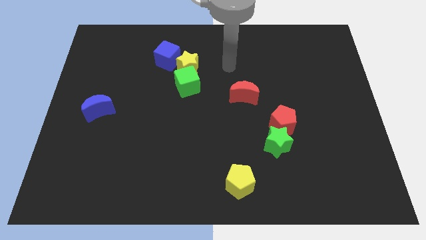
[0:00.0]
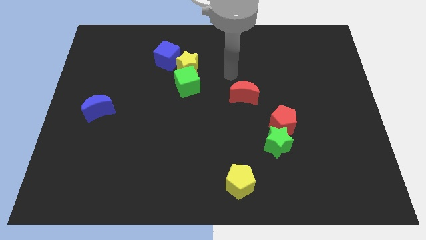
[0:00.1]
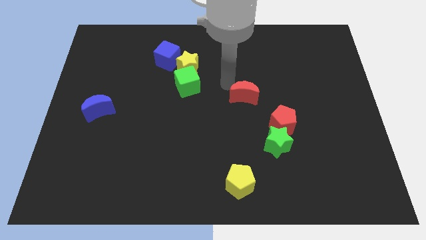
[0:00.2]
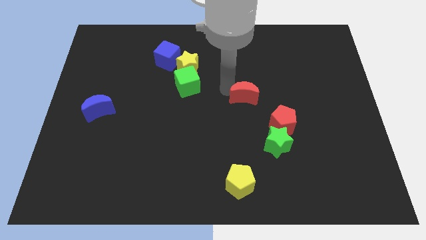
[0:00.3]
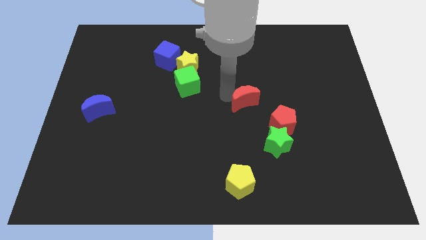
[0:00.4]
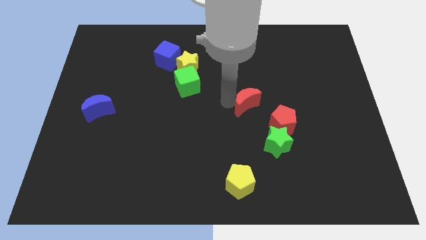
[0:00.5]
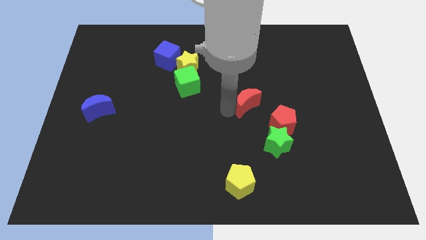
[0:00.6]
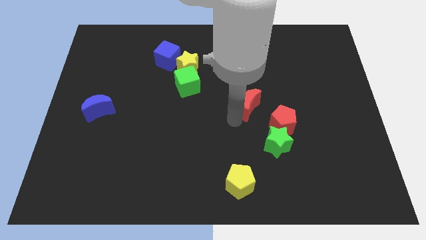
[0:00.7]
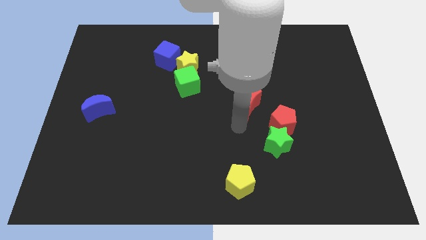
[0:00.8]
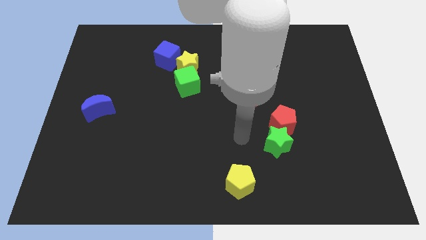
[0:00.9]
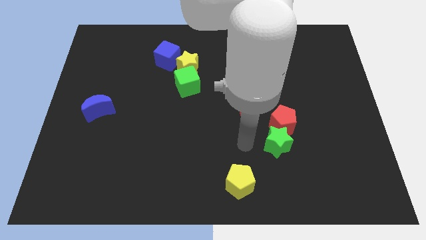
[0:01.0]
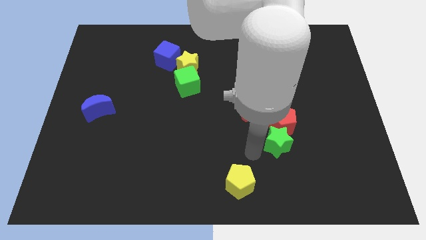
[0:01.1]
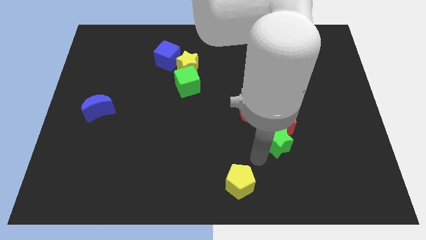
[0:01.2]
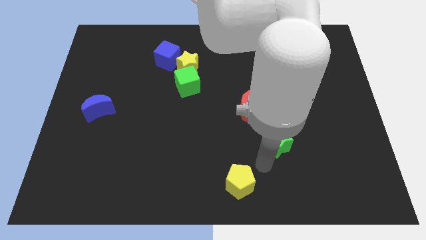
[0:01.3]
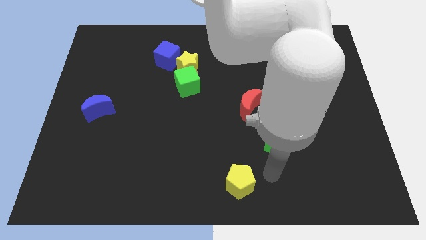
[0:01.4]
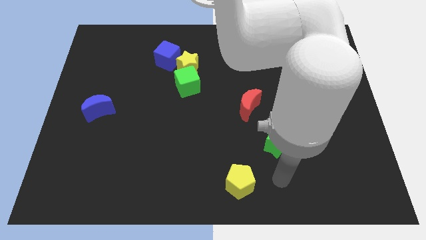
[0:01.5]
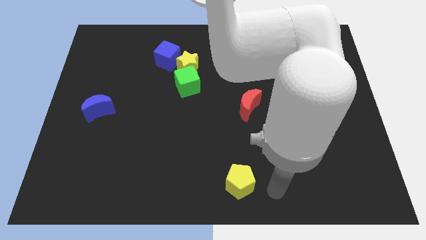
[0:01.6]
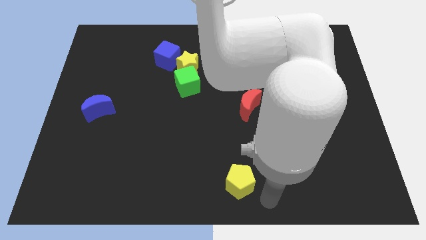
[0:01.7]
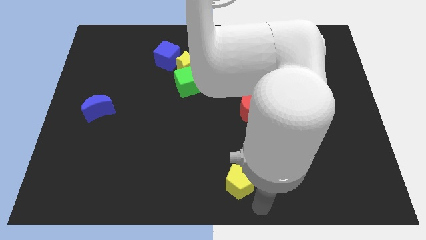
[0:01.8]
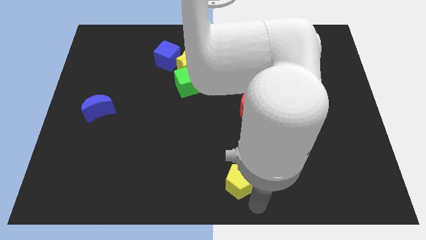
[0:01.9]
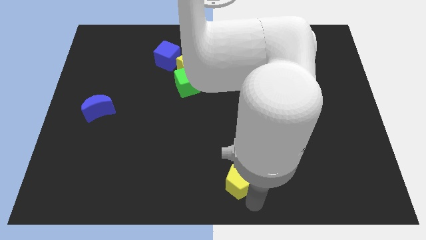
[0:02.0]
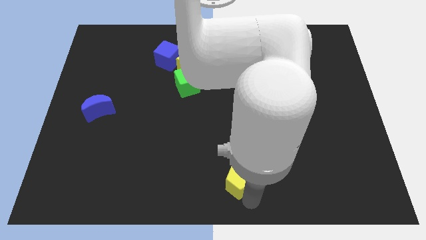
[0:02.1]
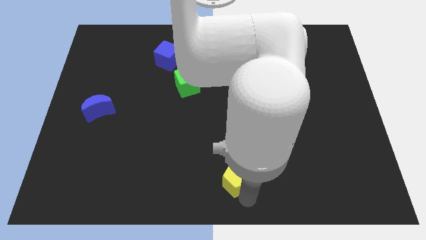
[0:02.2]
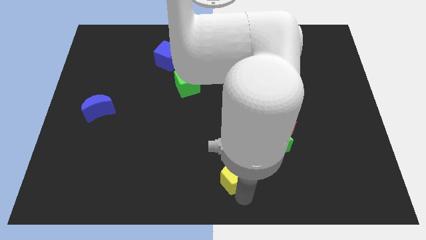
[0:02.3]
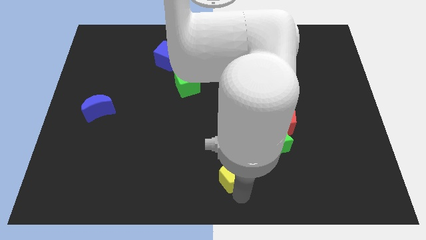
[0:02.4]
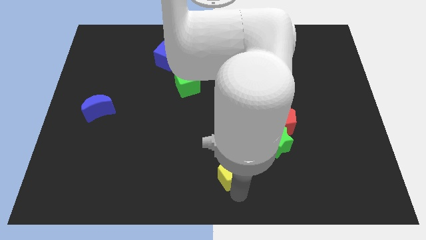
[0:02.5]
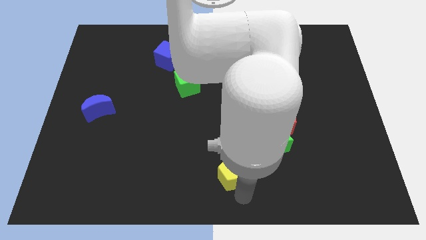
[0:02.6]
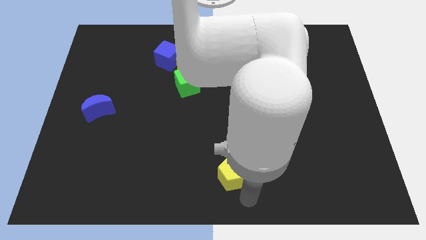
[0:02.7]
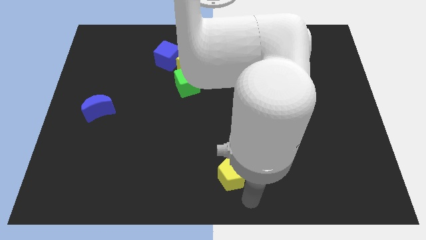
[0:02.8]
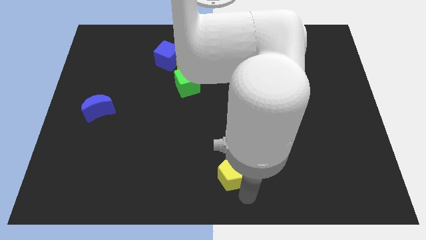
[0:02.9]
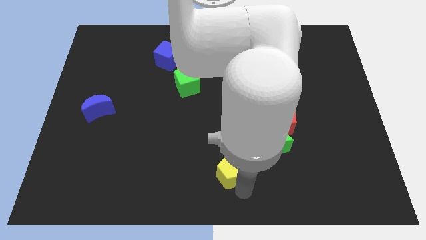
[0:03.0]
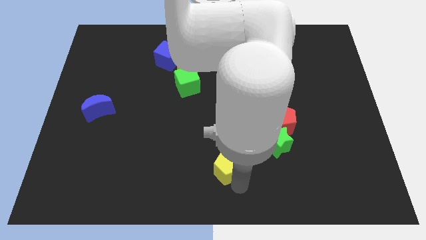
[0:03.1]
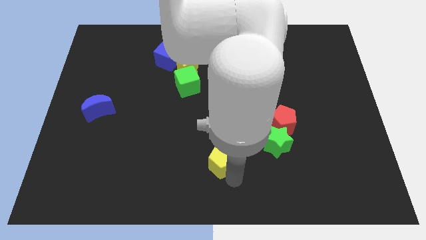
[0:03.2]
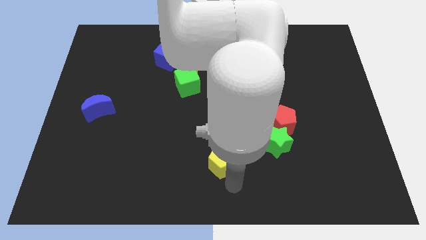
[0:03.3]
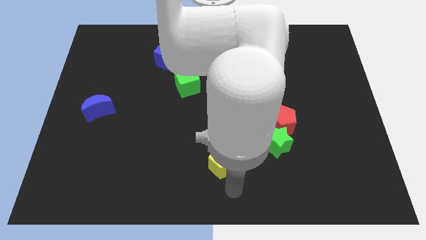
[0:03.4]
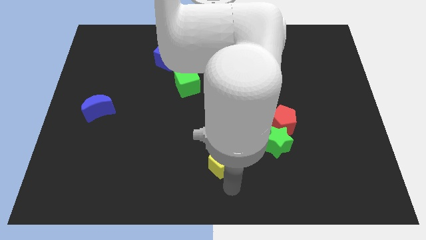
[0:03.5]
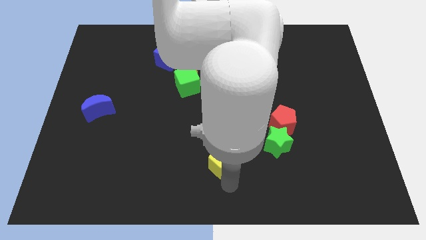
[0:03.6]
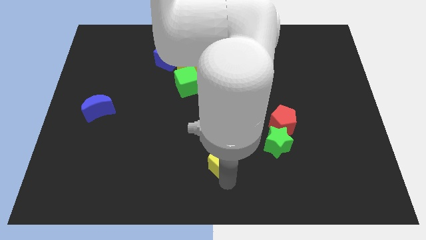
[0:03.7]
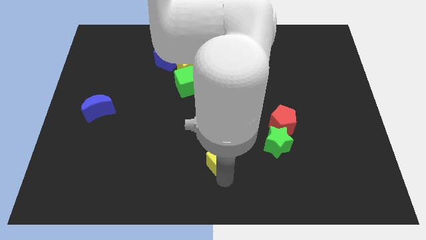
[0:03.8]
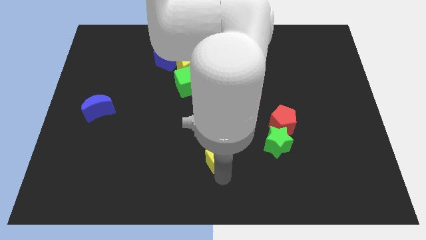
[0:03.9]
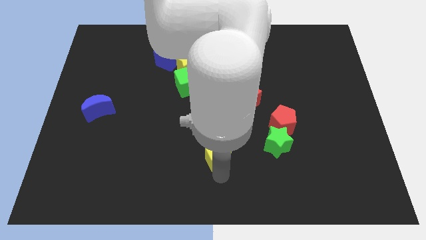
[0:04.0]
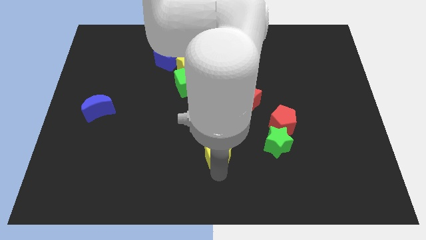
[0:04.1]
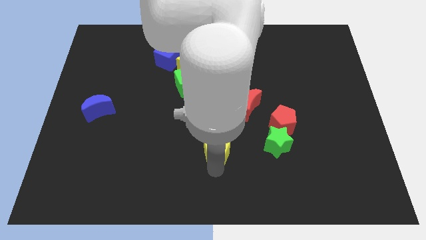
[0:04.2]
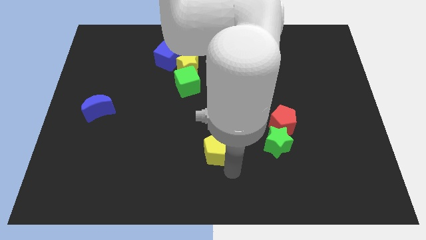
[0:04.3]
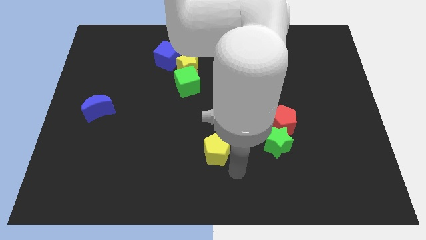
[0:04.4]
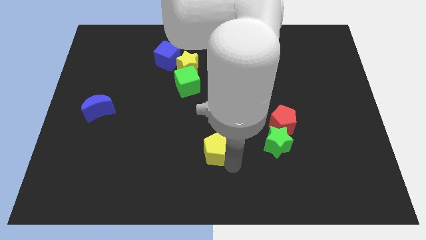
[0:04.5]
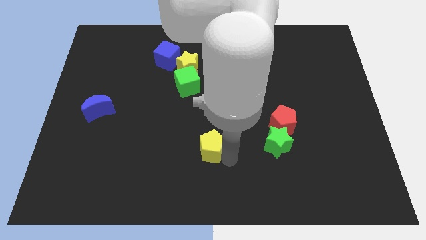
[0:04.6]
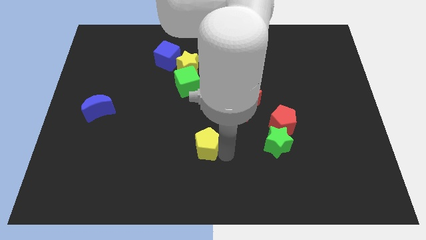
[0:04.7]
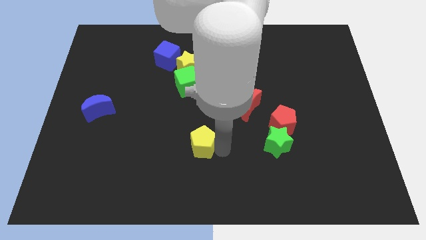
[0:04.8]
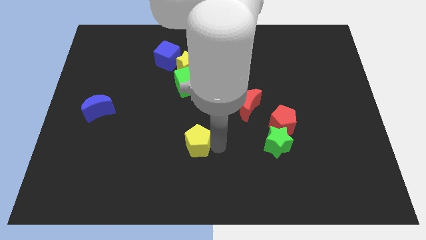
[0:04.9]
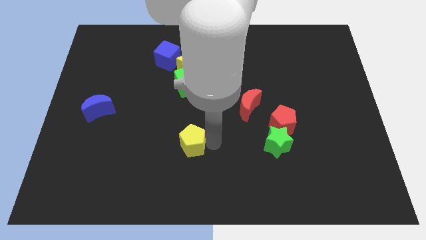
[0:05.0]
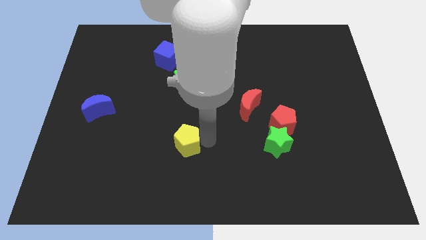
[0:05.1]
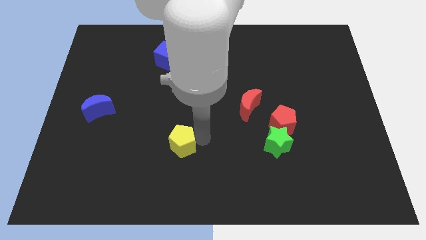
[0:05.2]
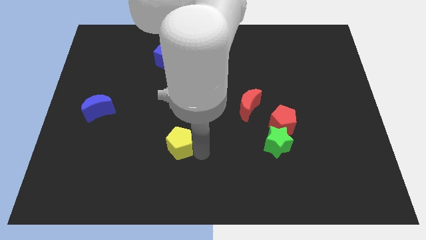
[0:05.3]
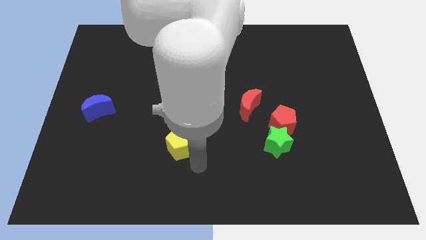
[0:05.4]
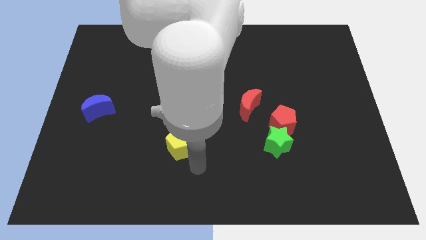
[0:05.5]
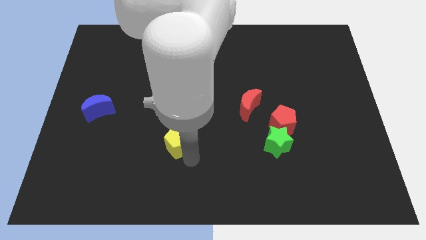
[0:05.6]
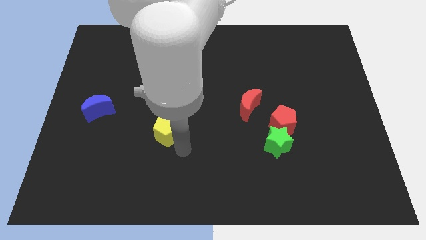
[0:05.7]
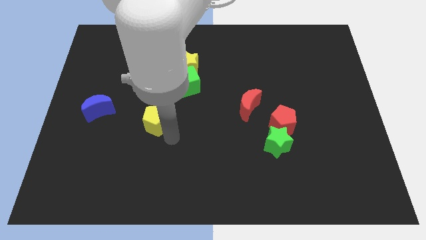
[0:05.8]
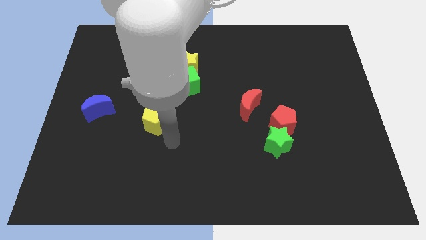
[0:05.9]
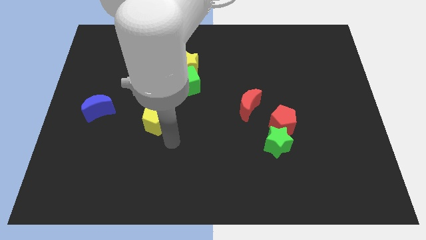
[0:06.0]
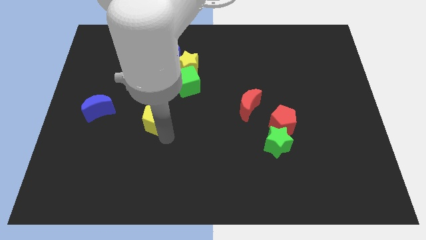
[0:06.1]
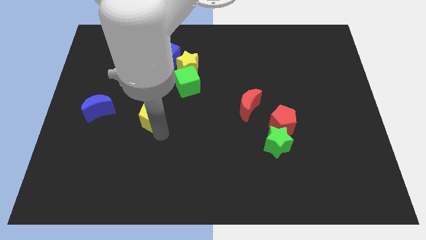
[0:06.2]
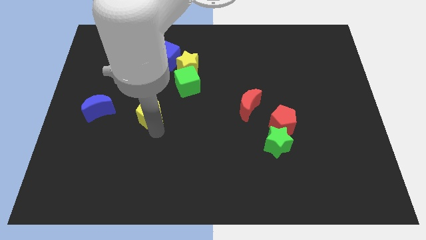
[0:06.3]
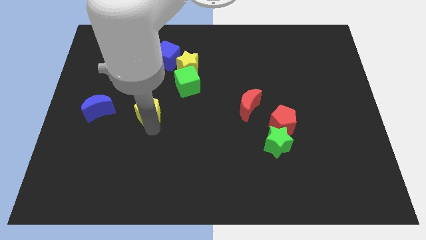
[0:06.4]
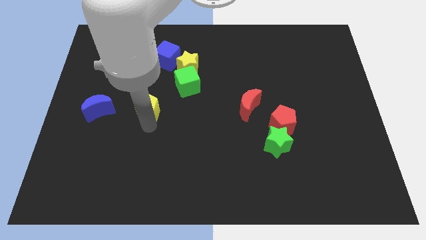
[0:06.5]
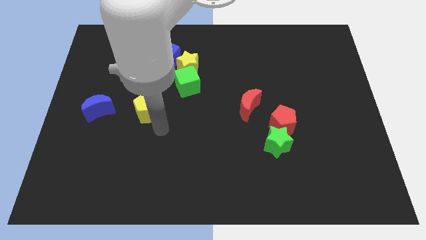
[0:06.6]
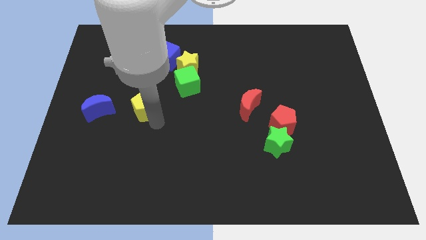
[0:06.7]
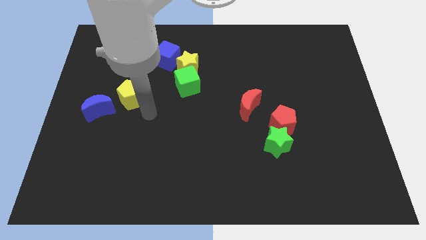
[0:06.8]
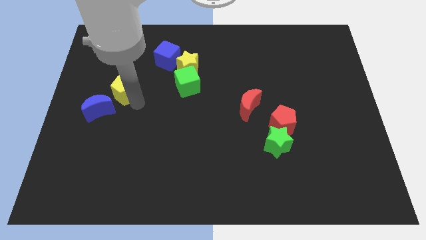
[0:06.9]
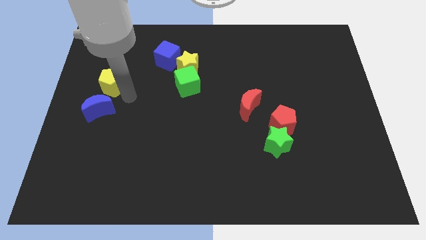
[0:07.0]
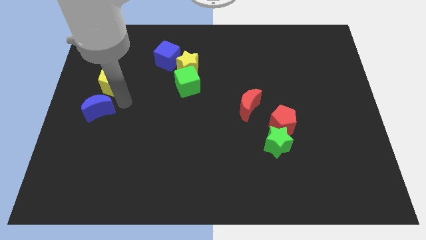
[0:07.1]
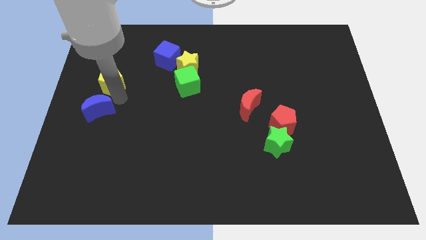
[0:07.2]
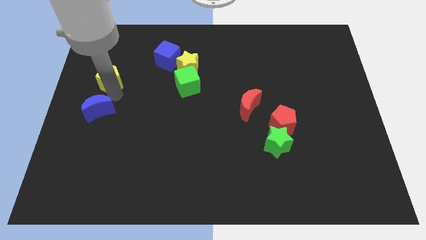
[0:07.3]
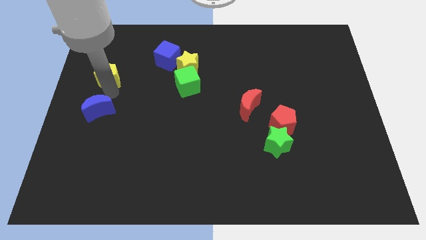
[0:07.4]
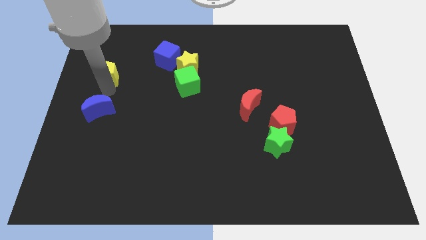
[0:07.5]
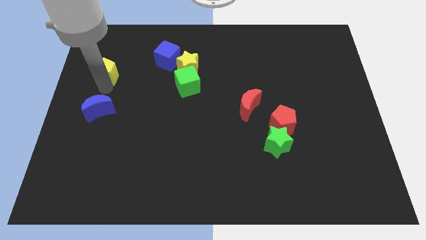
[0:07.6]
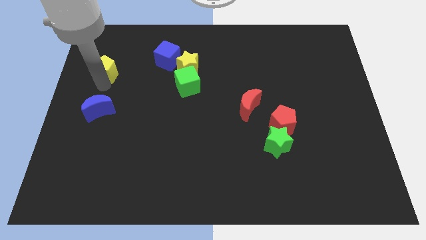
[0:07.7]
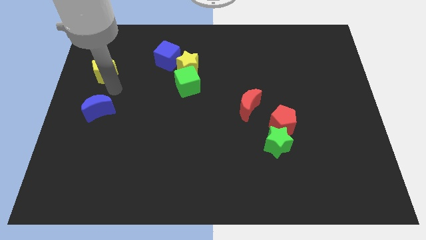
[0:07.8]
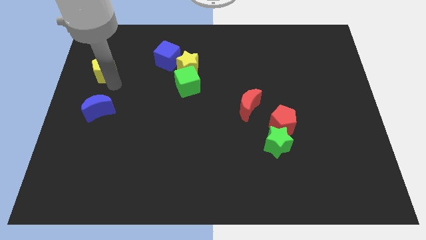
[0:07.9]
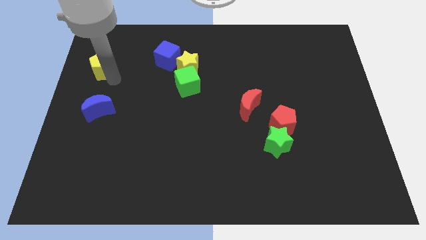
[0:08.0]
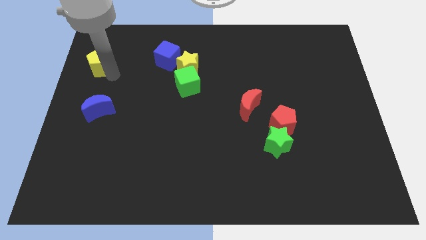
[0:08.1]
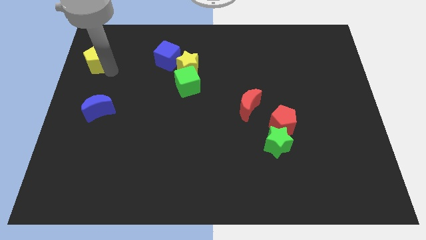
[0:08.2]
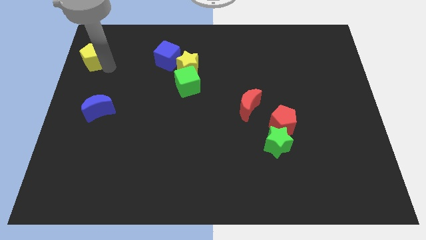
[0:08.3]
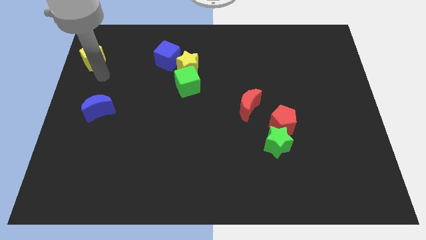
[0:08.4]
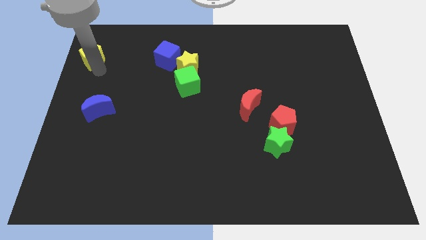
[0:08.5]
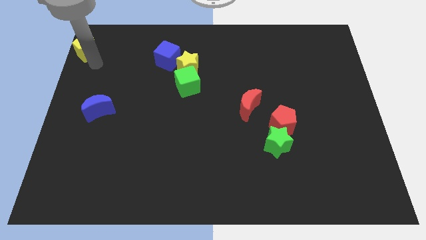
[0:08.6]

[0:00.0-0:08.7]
slide the yellow pentagon to the top left corner
